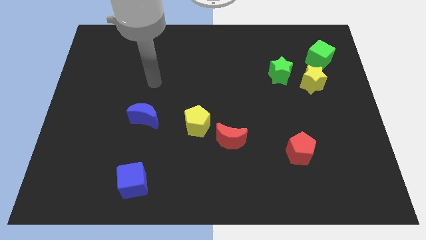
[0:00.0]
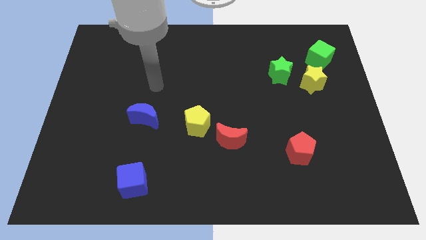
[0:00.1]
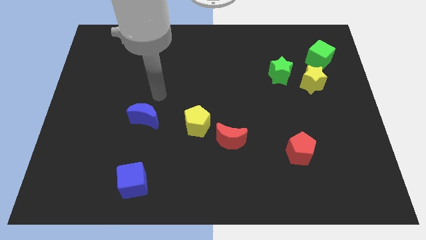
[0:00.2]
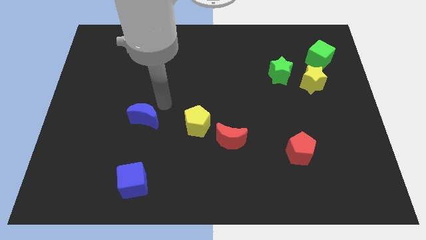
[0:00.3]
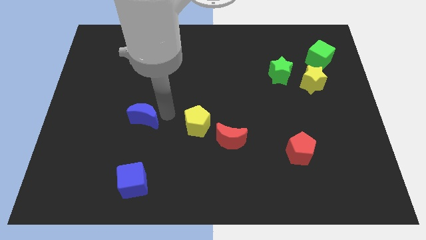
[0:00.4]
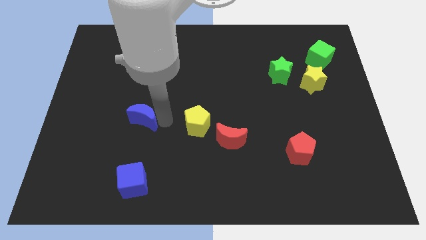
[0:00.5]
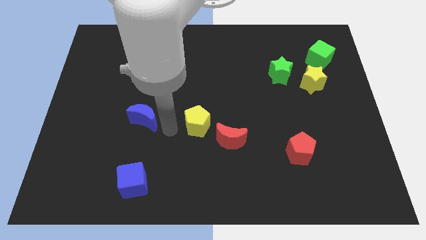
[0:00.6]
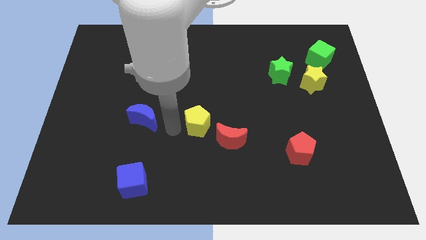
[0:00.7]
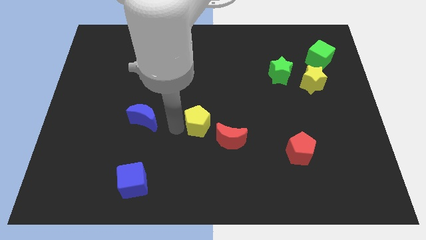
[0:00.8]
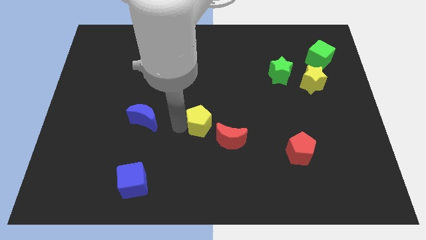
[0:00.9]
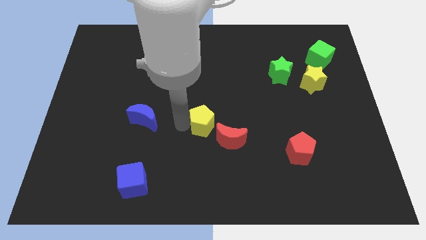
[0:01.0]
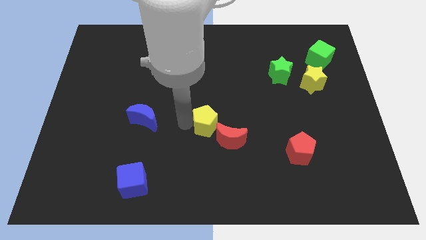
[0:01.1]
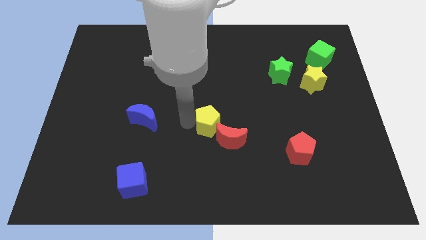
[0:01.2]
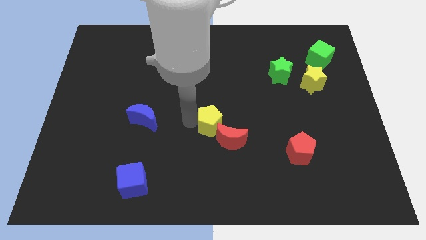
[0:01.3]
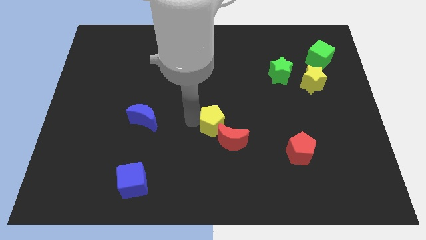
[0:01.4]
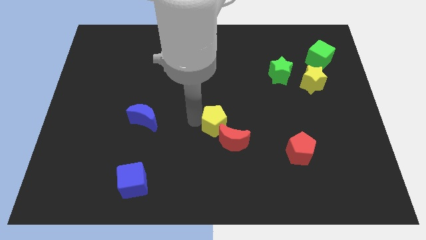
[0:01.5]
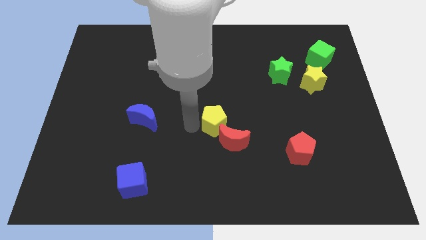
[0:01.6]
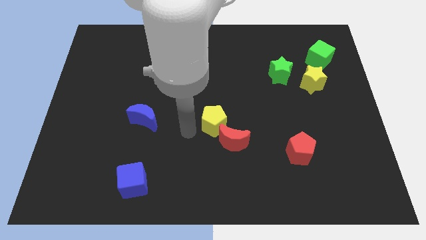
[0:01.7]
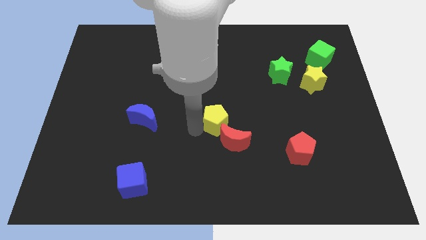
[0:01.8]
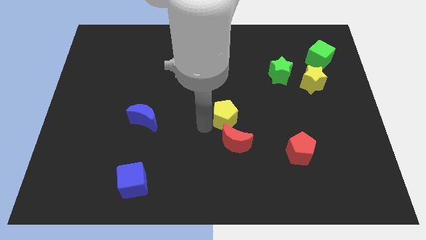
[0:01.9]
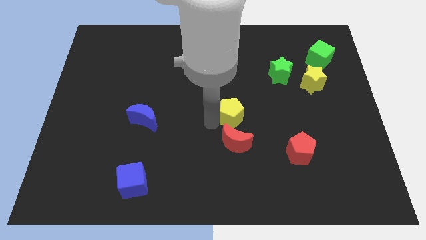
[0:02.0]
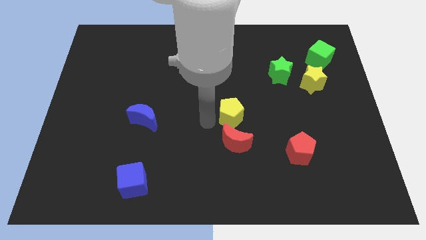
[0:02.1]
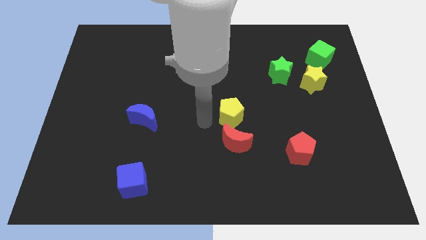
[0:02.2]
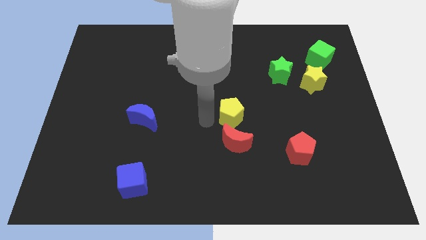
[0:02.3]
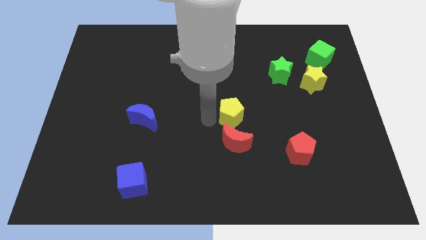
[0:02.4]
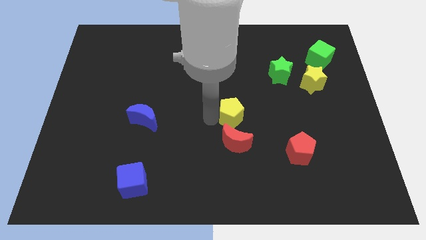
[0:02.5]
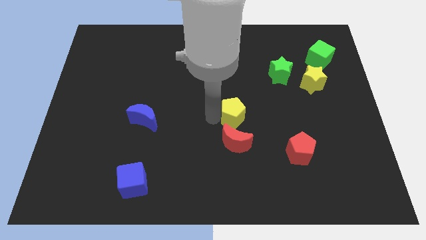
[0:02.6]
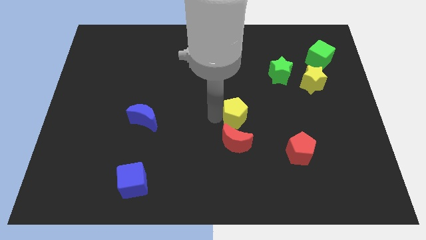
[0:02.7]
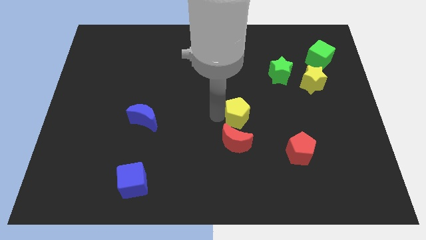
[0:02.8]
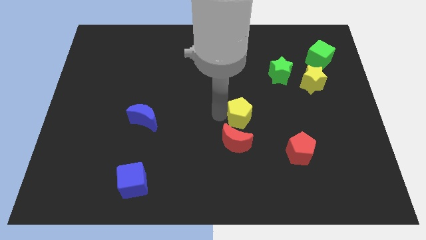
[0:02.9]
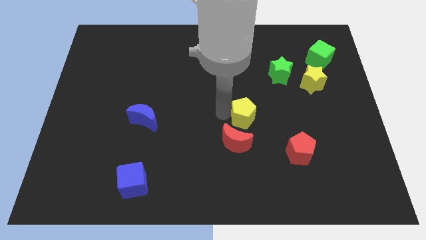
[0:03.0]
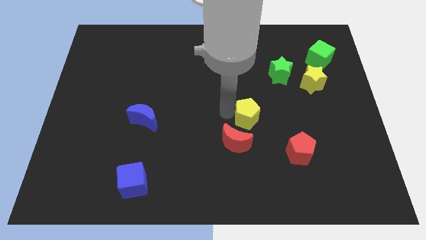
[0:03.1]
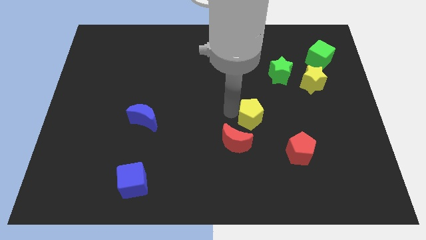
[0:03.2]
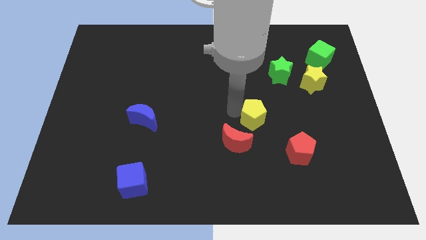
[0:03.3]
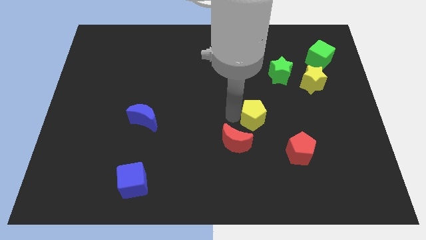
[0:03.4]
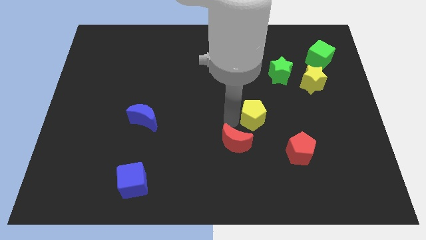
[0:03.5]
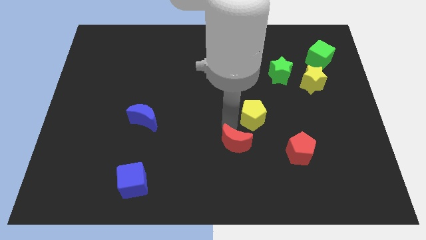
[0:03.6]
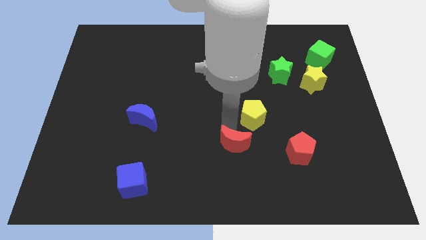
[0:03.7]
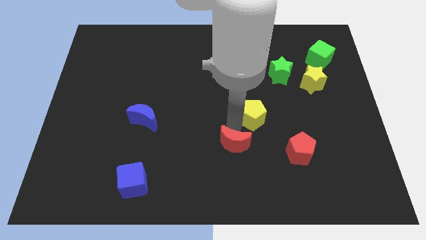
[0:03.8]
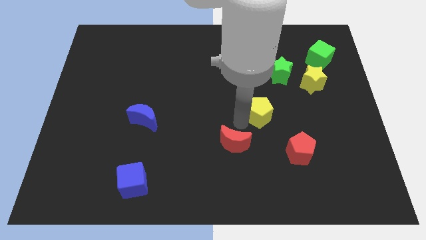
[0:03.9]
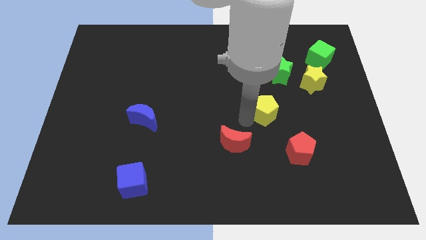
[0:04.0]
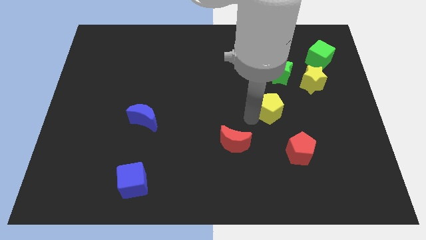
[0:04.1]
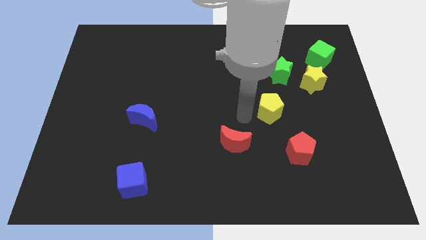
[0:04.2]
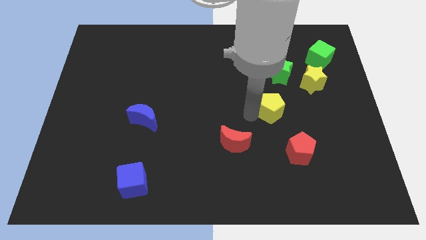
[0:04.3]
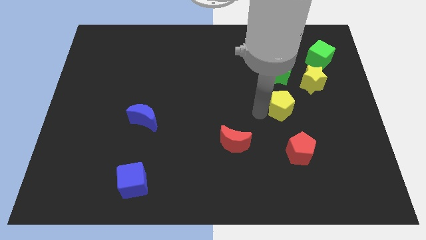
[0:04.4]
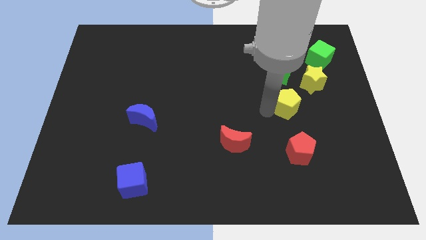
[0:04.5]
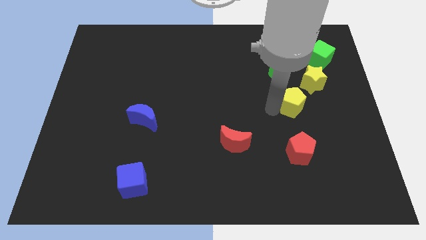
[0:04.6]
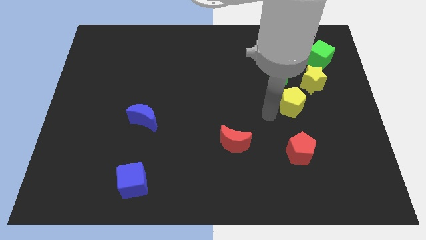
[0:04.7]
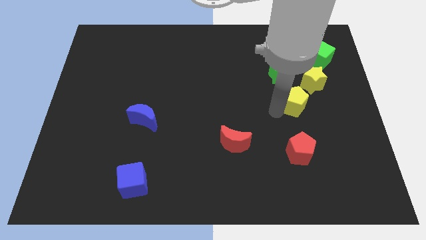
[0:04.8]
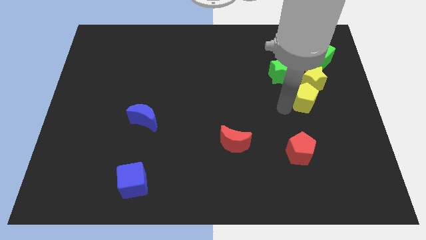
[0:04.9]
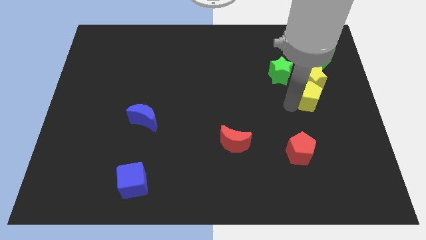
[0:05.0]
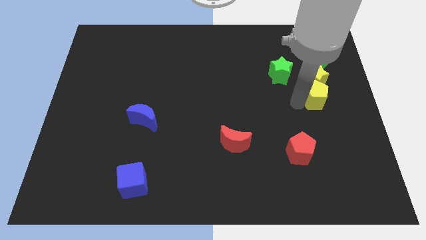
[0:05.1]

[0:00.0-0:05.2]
put the yellow pentagon to the bottom of the green cube
